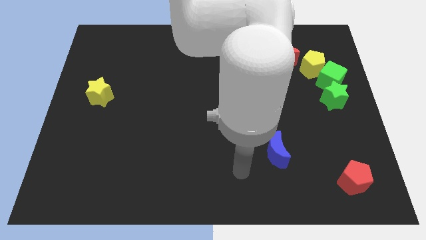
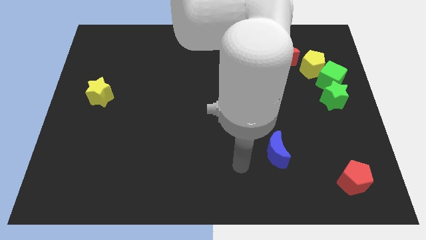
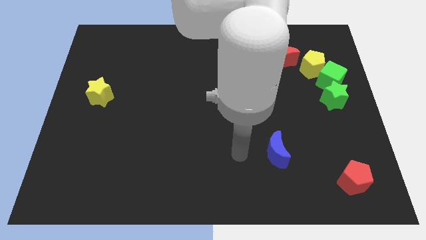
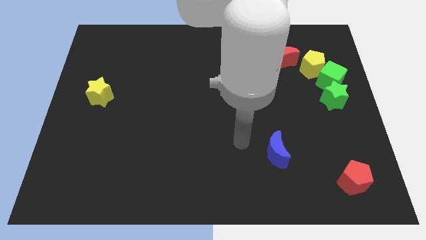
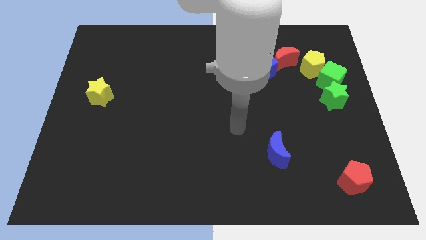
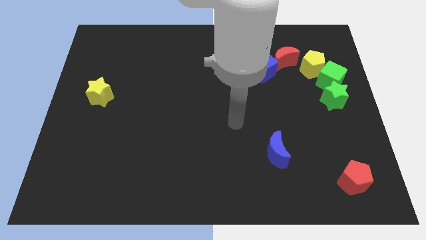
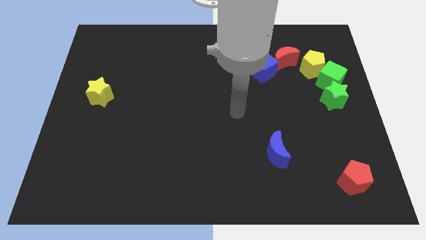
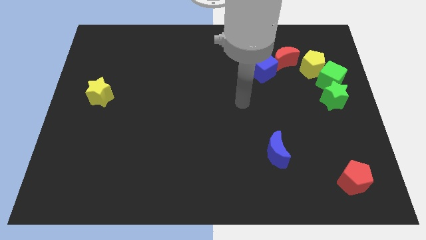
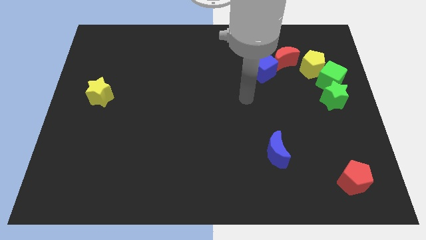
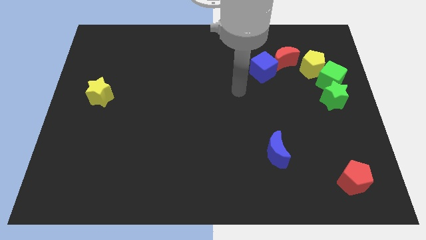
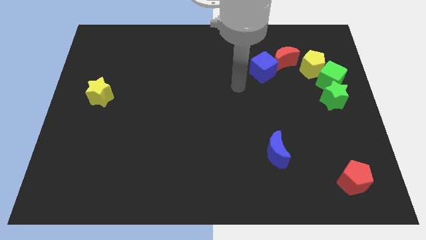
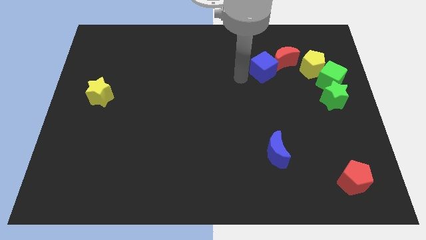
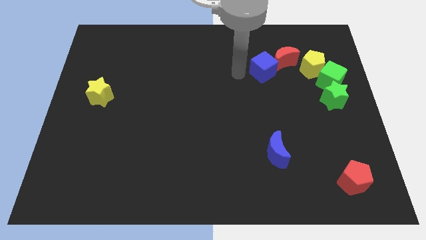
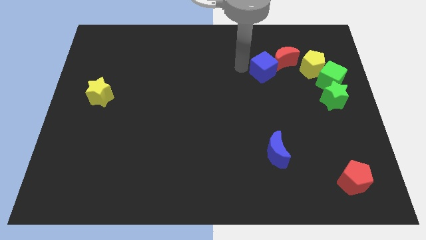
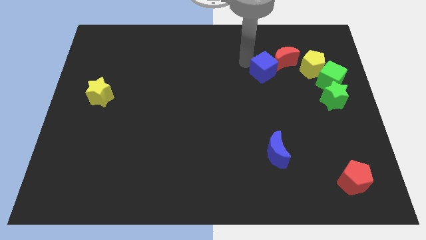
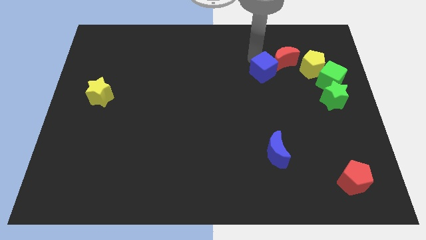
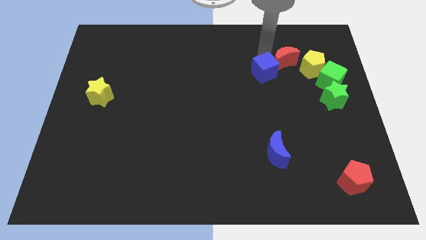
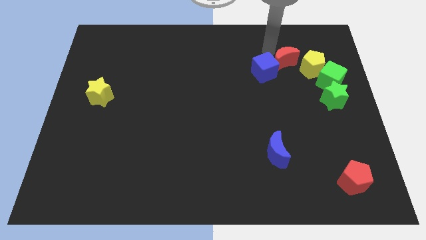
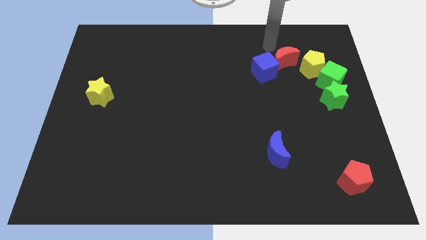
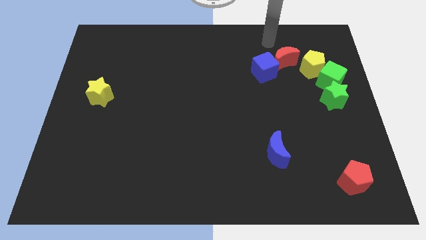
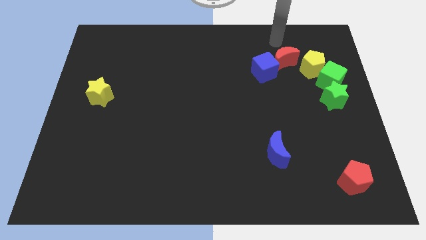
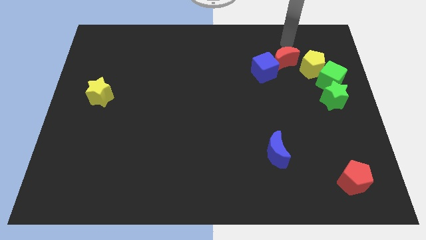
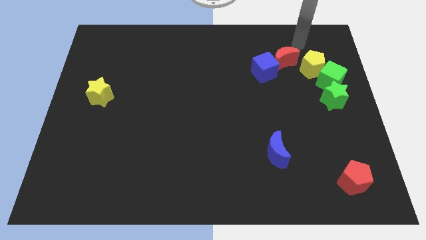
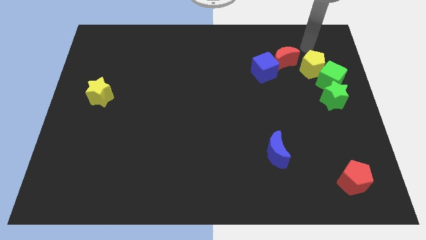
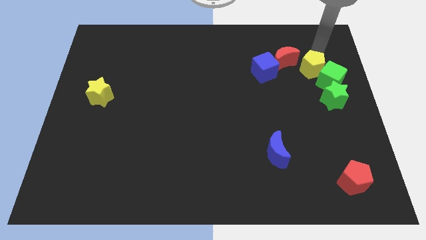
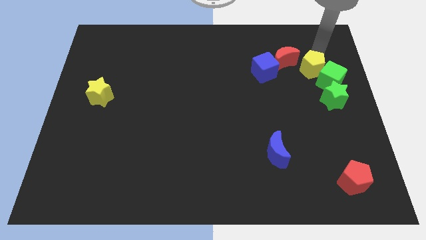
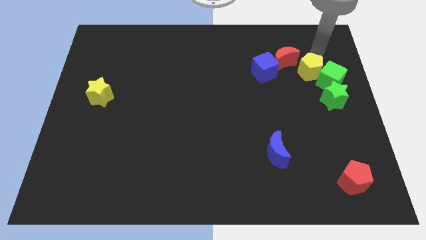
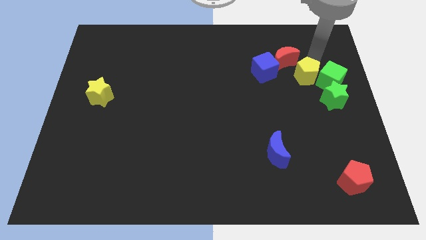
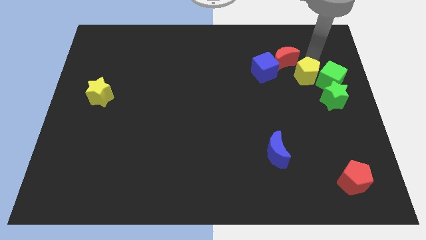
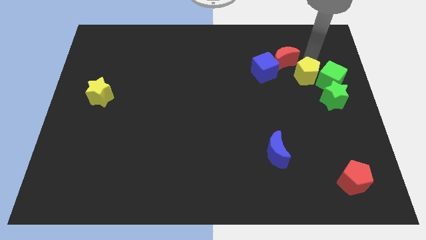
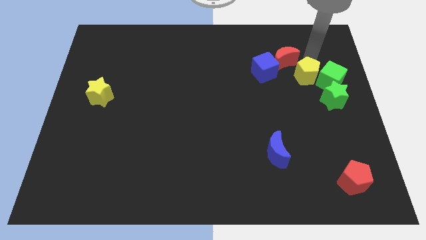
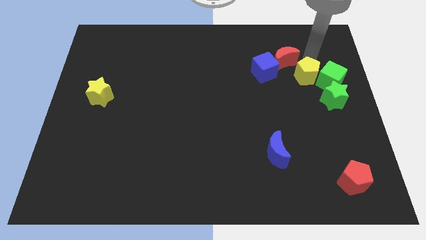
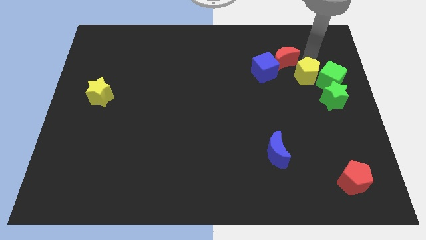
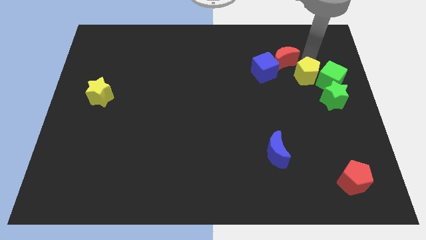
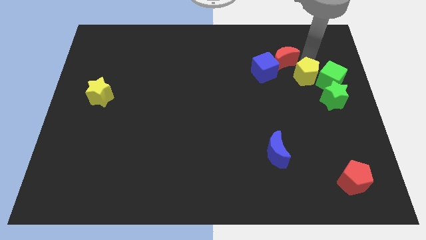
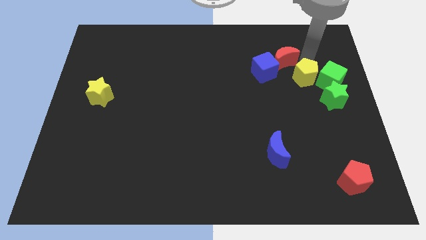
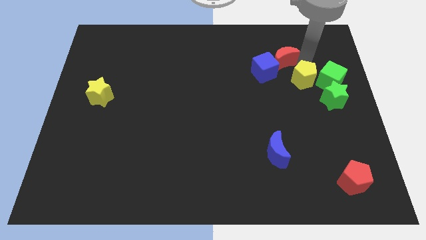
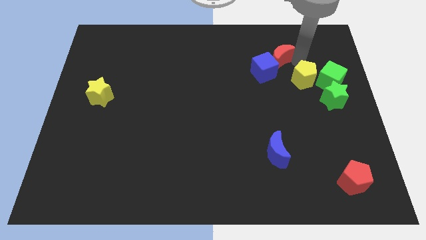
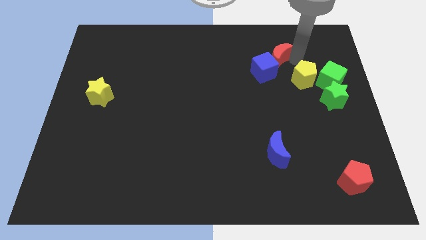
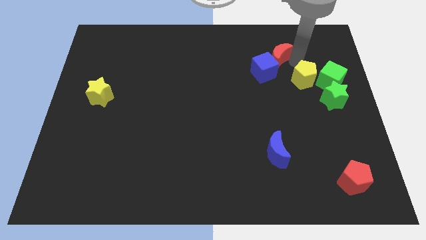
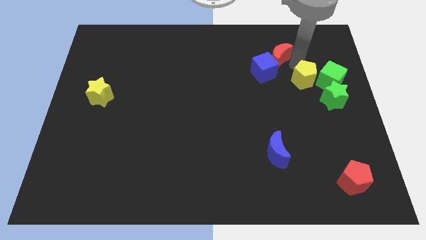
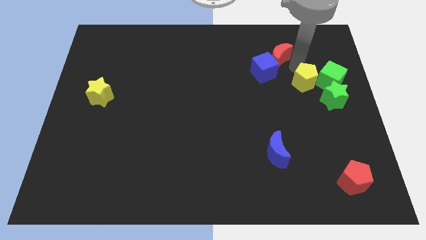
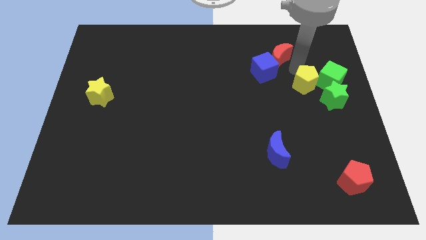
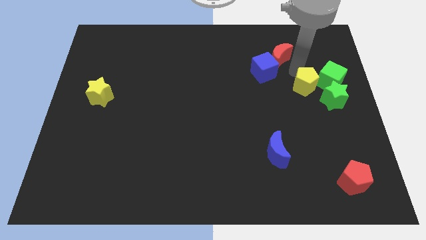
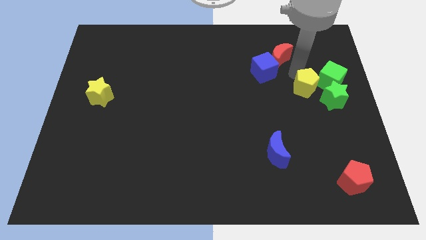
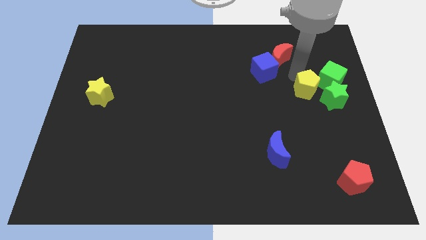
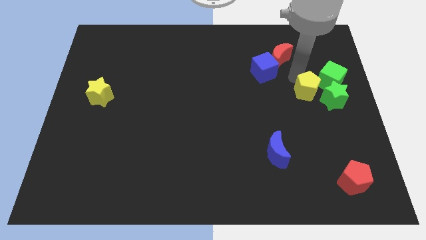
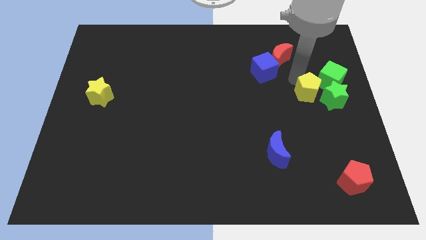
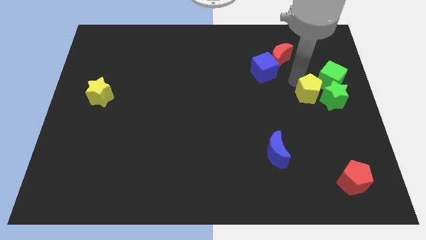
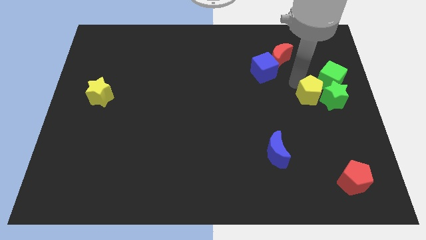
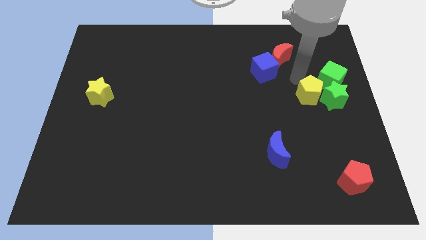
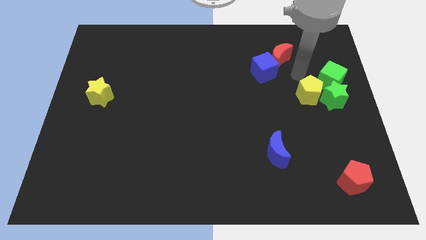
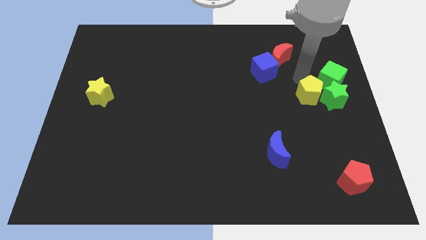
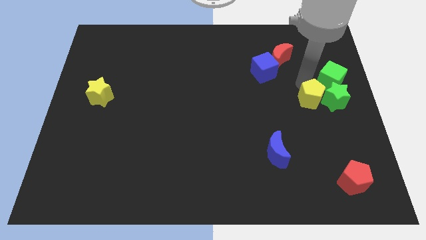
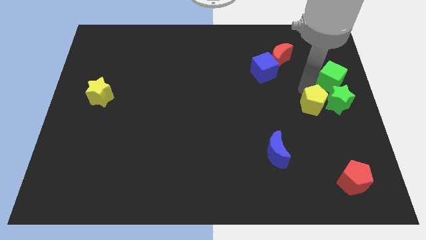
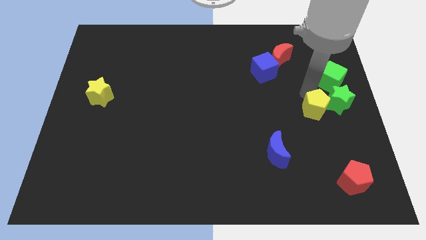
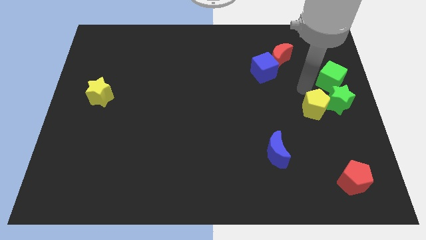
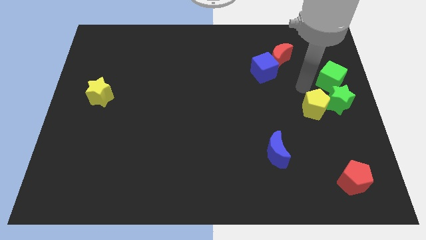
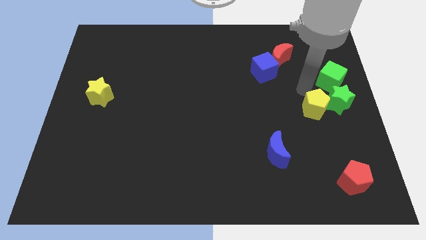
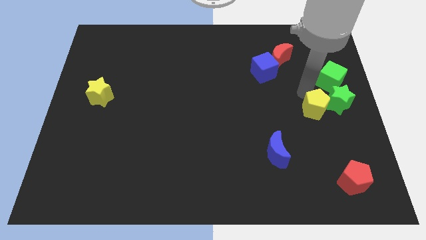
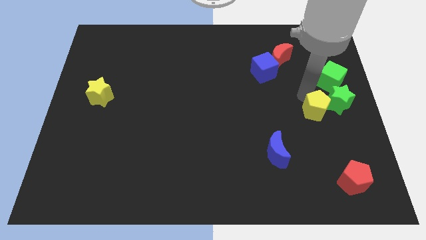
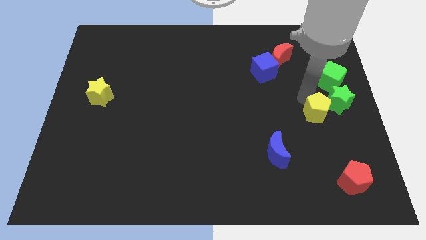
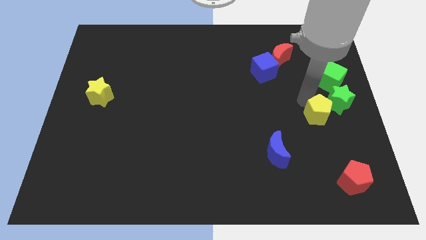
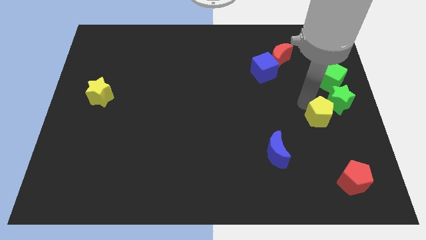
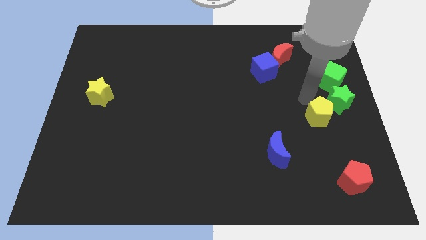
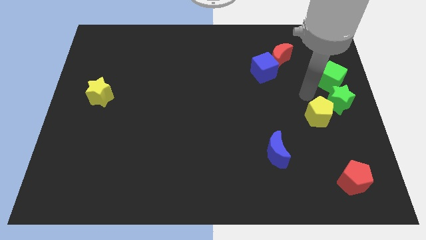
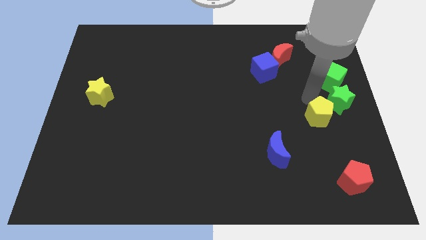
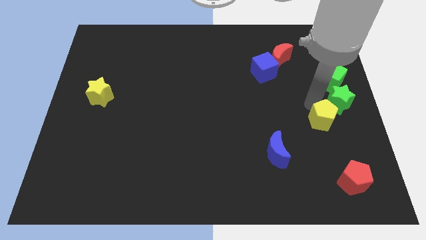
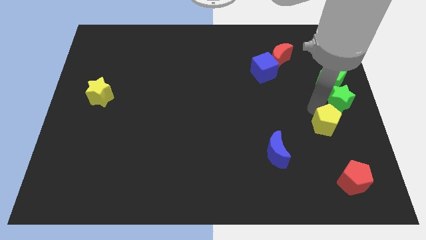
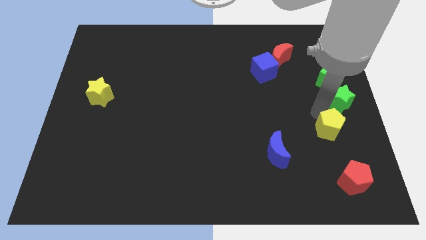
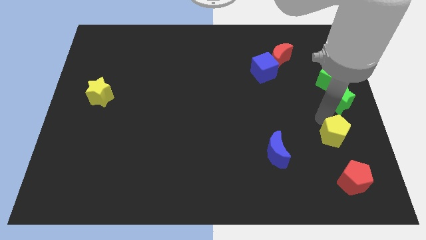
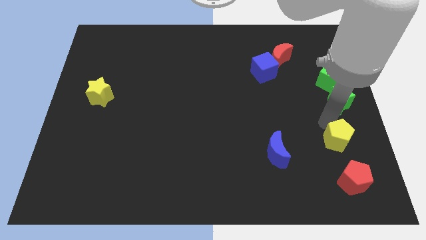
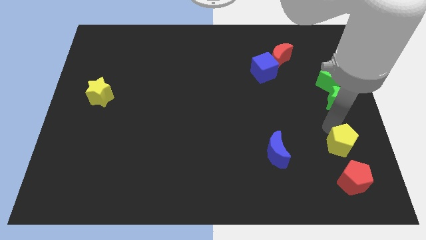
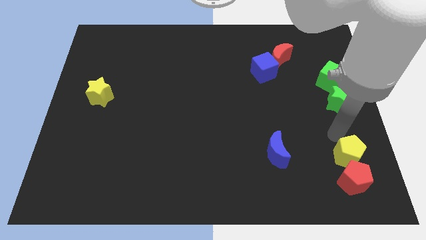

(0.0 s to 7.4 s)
push the yellow pentagon towards the red pentagon
